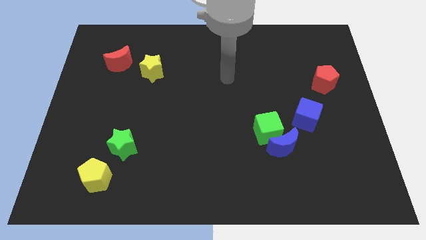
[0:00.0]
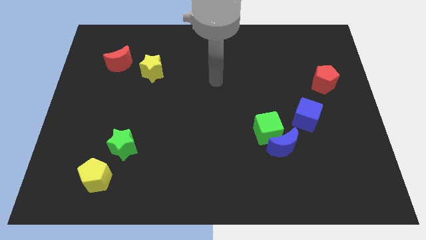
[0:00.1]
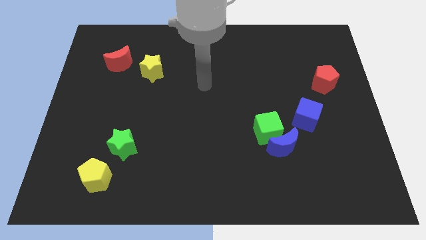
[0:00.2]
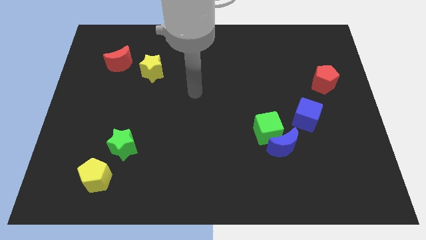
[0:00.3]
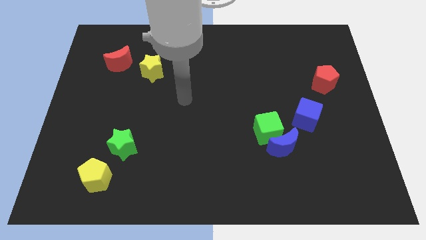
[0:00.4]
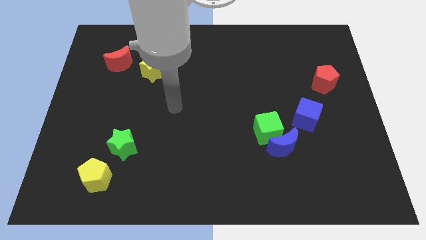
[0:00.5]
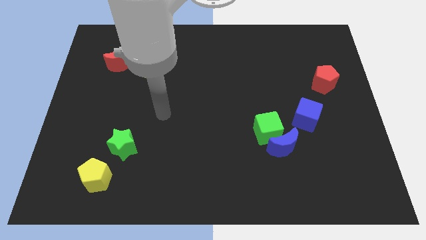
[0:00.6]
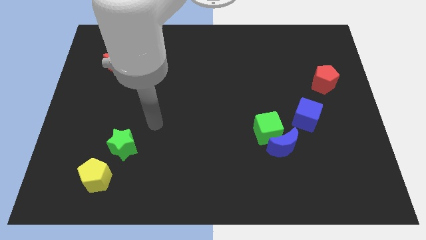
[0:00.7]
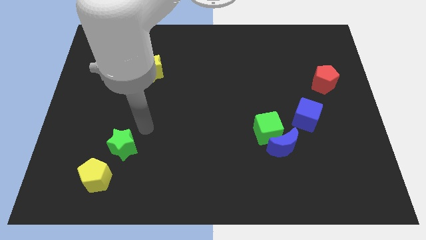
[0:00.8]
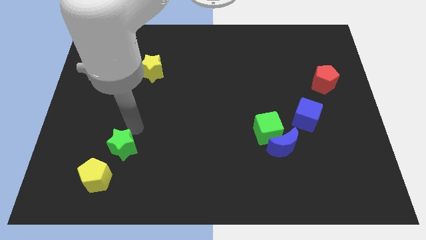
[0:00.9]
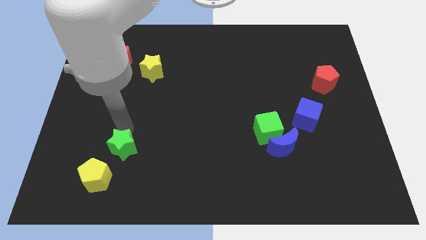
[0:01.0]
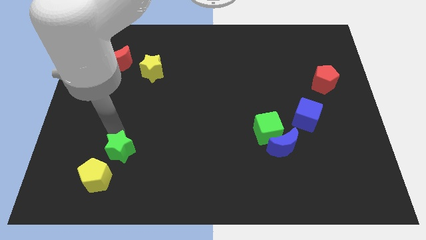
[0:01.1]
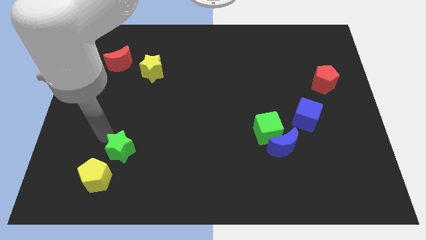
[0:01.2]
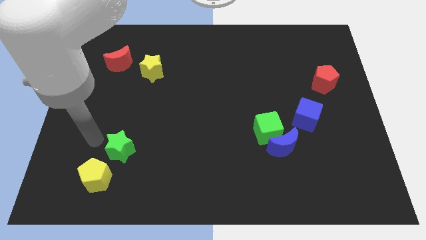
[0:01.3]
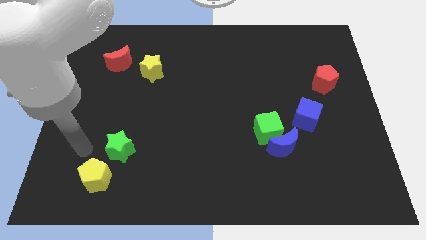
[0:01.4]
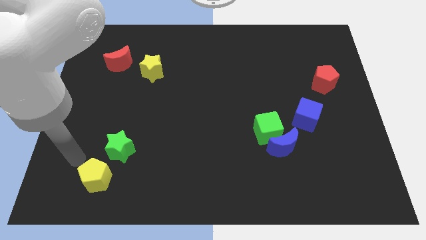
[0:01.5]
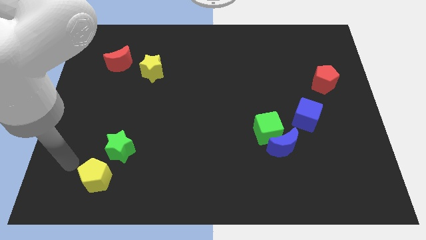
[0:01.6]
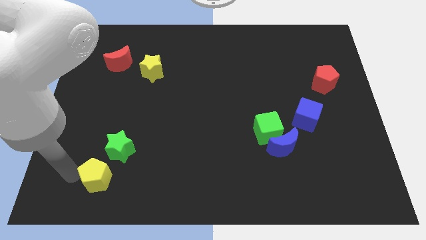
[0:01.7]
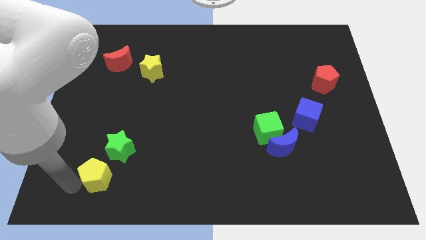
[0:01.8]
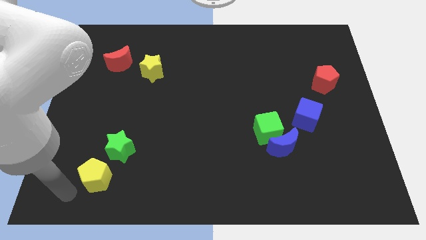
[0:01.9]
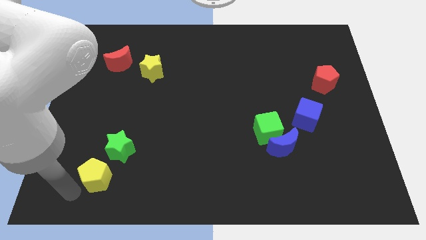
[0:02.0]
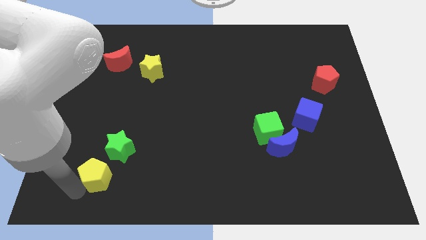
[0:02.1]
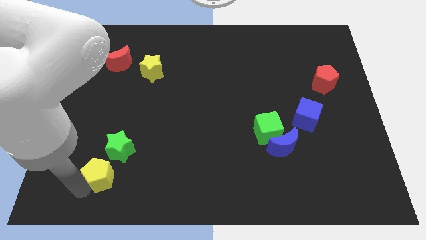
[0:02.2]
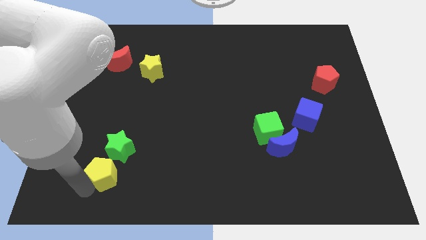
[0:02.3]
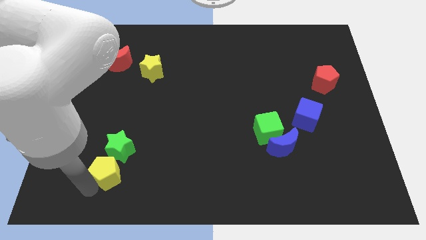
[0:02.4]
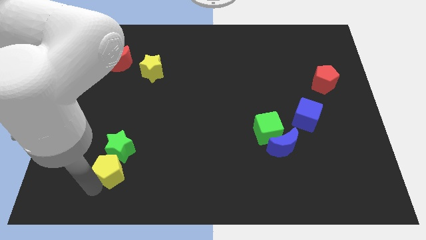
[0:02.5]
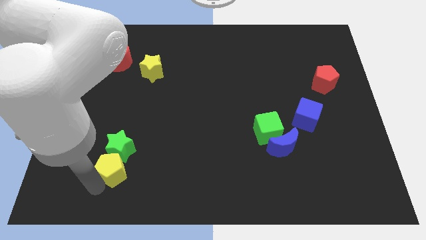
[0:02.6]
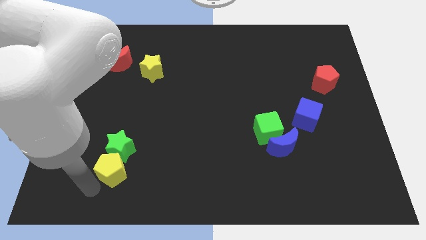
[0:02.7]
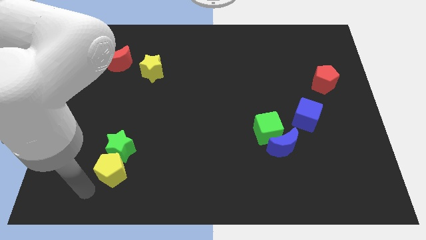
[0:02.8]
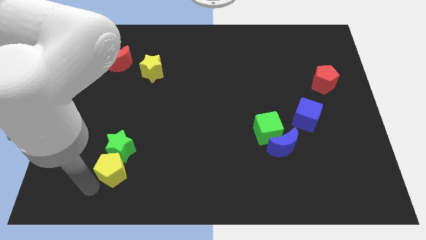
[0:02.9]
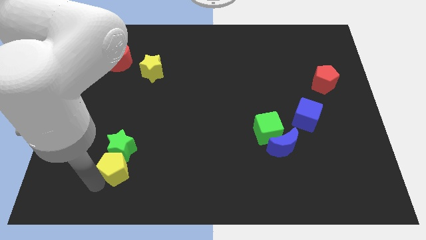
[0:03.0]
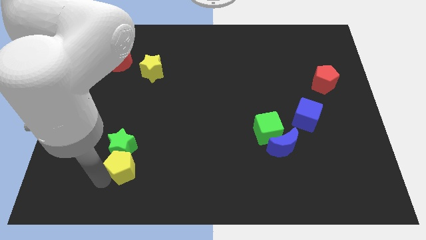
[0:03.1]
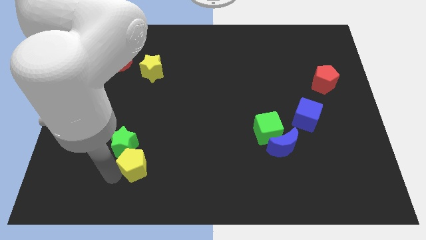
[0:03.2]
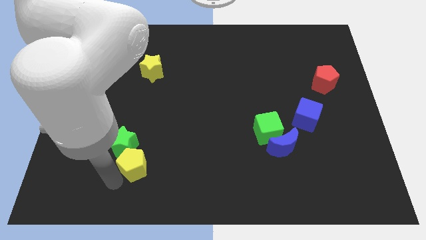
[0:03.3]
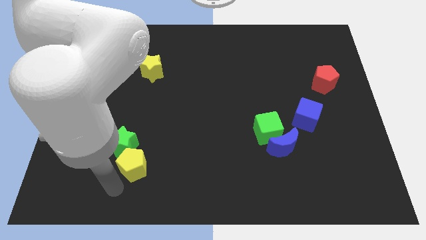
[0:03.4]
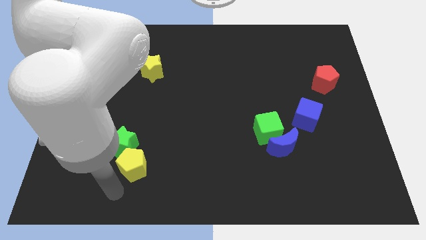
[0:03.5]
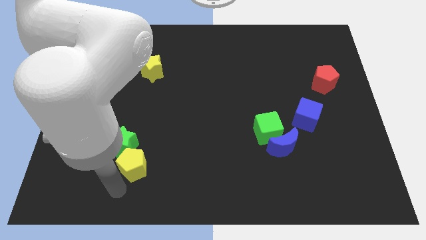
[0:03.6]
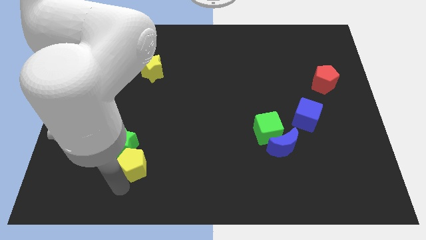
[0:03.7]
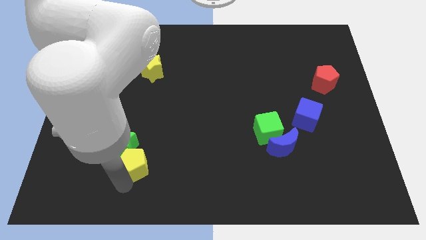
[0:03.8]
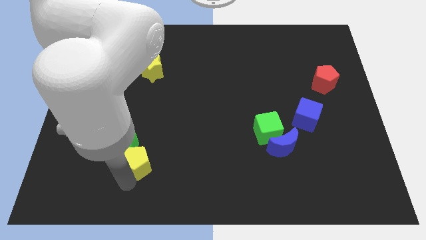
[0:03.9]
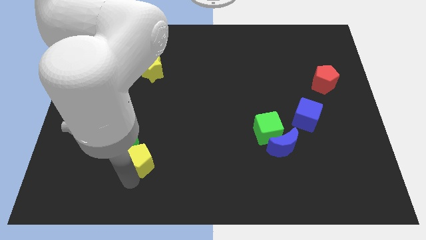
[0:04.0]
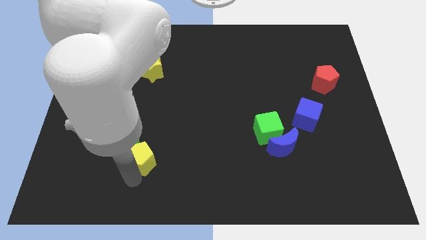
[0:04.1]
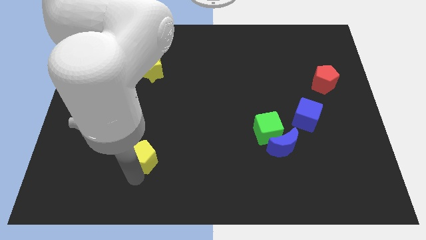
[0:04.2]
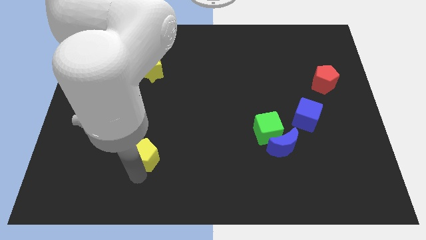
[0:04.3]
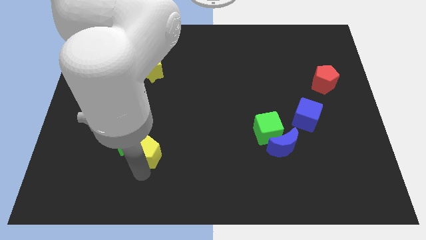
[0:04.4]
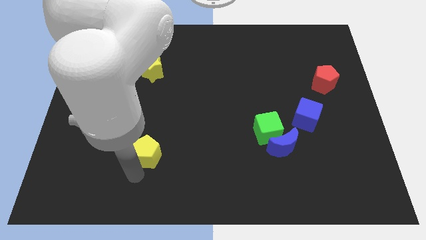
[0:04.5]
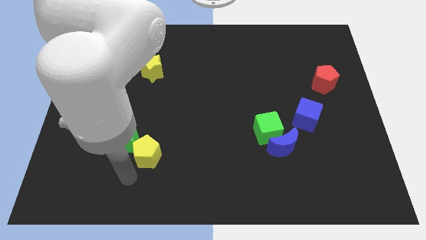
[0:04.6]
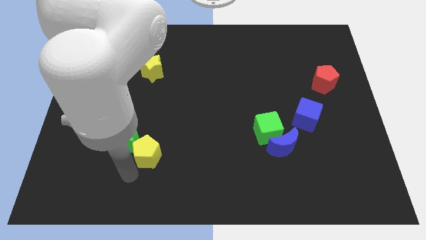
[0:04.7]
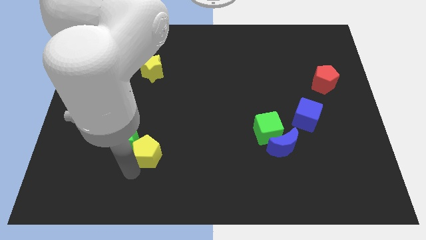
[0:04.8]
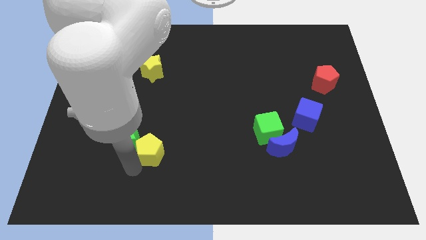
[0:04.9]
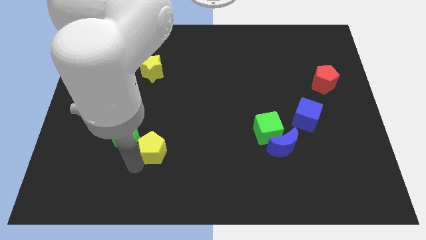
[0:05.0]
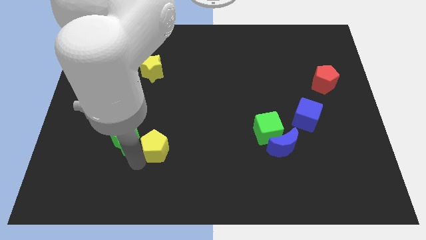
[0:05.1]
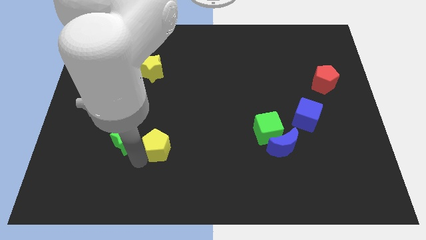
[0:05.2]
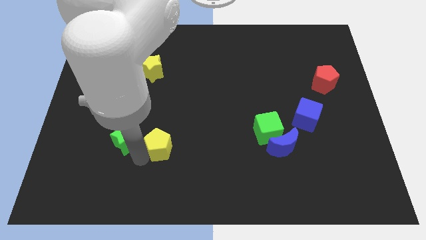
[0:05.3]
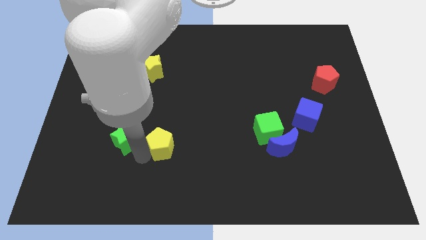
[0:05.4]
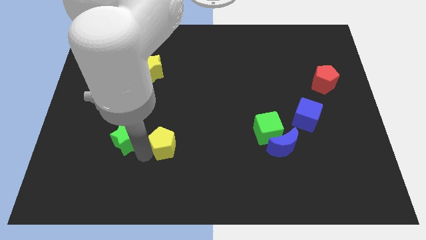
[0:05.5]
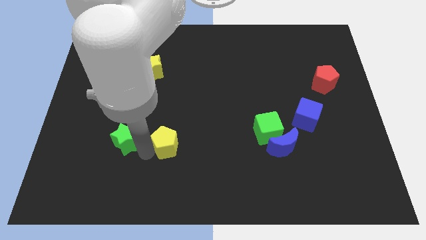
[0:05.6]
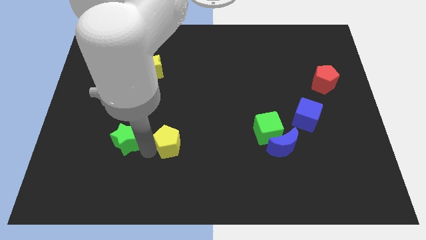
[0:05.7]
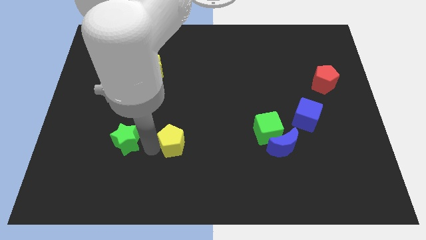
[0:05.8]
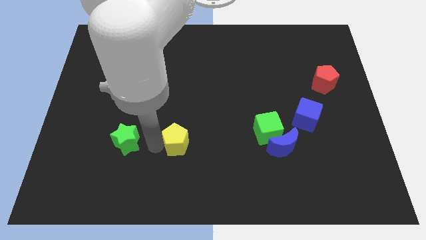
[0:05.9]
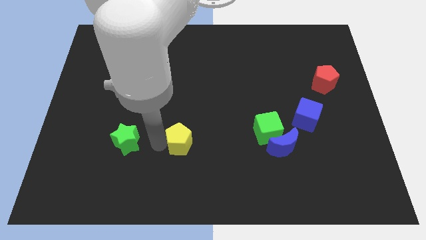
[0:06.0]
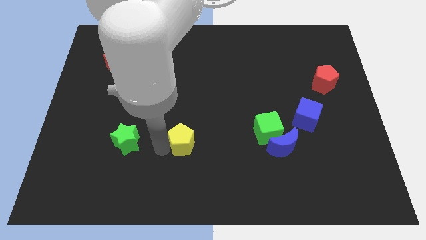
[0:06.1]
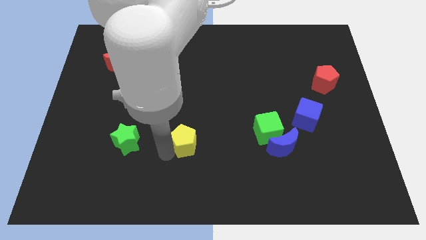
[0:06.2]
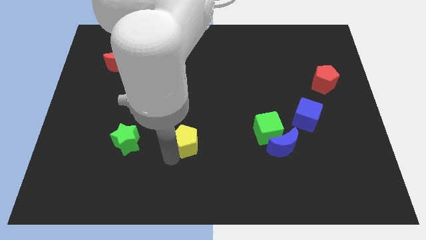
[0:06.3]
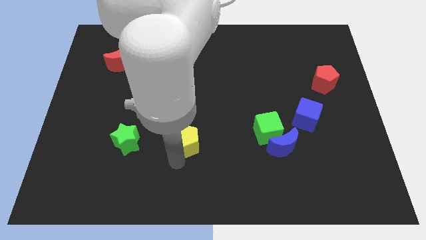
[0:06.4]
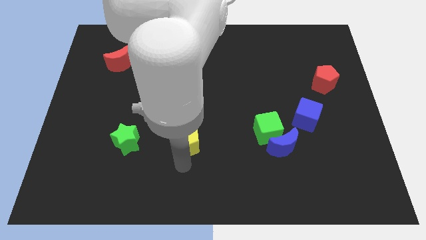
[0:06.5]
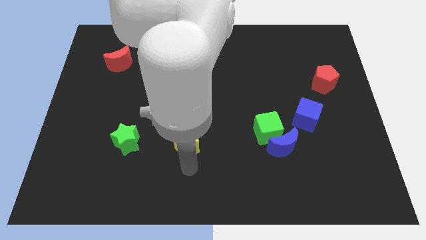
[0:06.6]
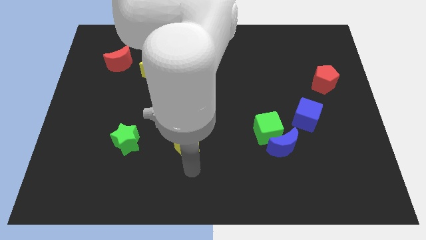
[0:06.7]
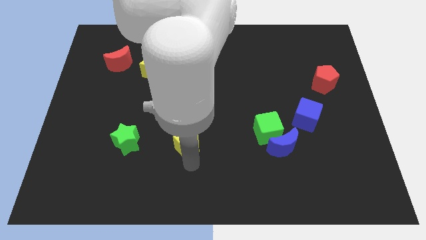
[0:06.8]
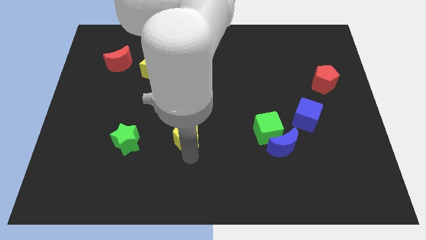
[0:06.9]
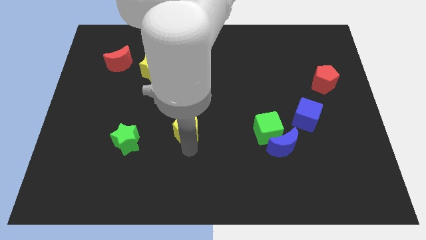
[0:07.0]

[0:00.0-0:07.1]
push the yellow pentagon up and right diagonally

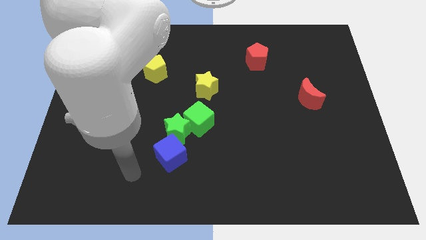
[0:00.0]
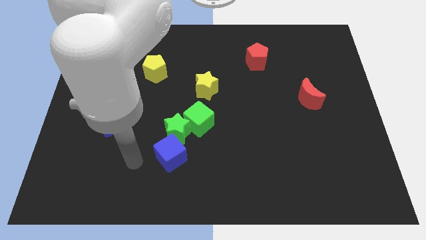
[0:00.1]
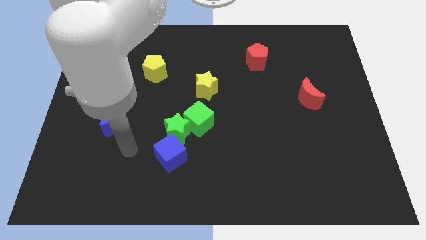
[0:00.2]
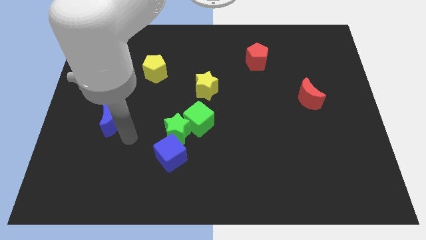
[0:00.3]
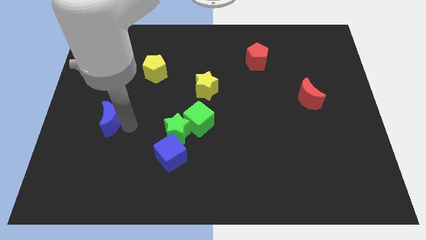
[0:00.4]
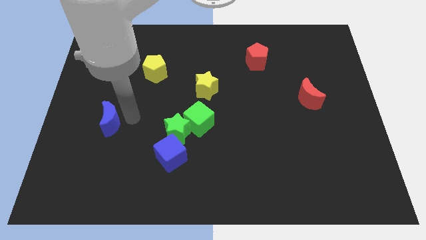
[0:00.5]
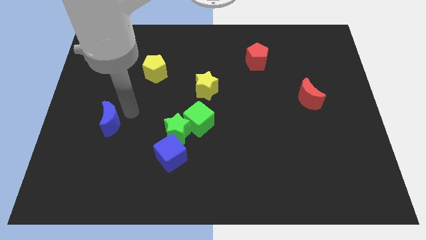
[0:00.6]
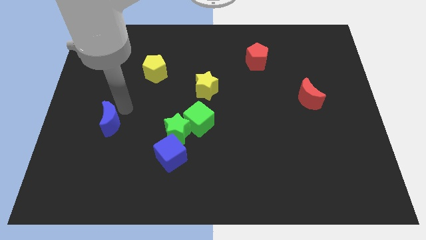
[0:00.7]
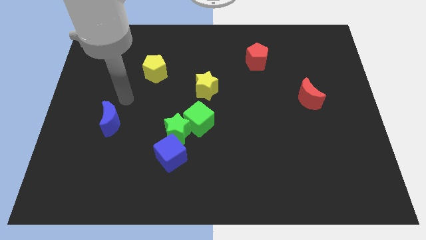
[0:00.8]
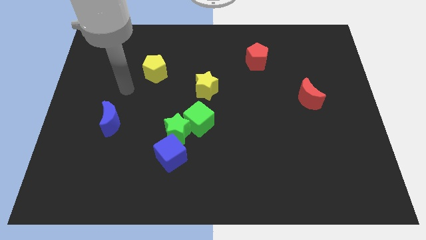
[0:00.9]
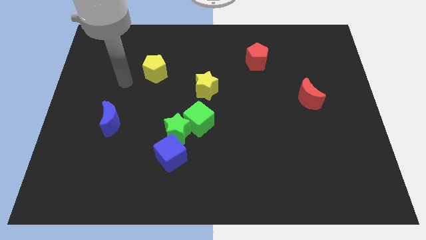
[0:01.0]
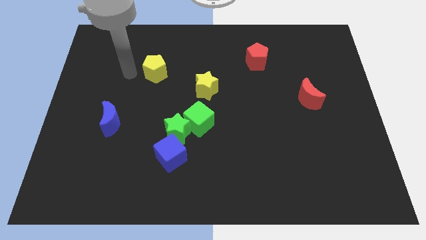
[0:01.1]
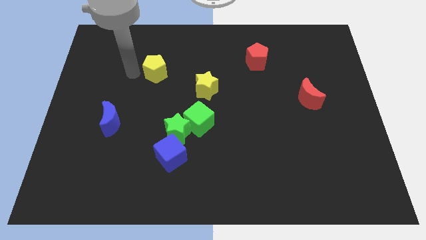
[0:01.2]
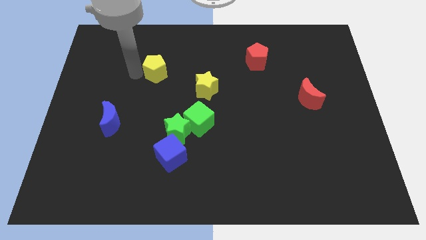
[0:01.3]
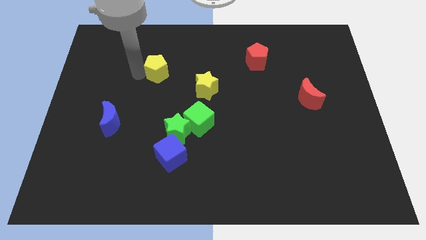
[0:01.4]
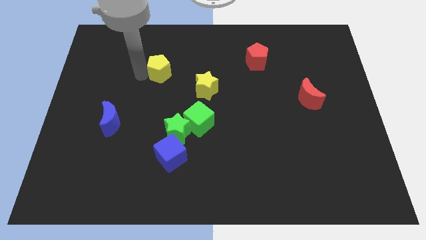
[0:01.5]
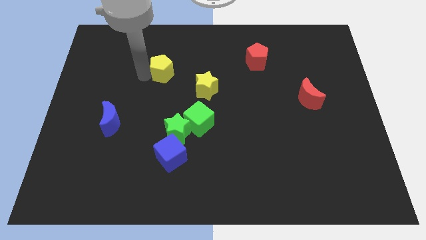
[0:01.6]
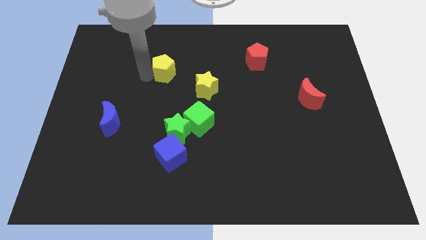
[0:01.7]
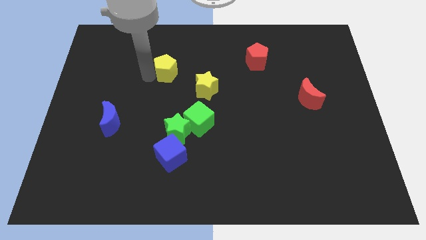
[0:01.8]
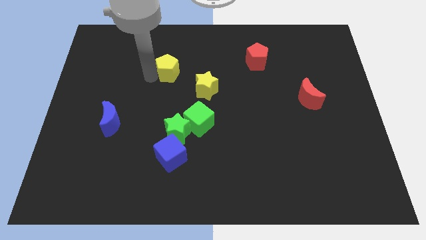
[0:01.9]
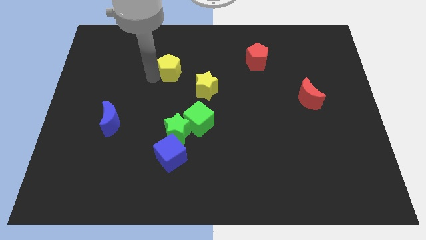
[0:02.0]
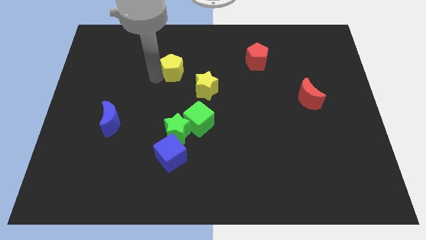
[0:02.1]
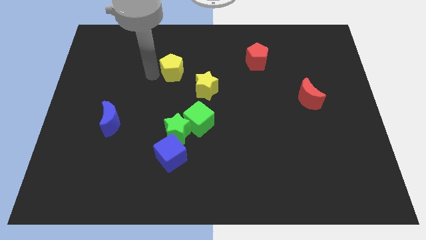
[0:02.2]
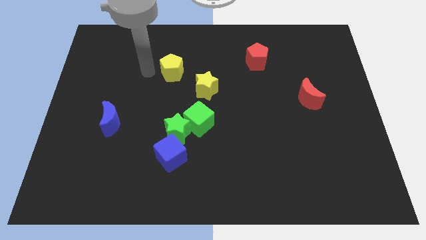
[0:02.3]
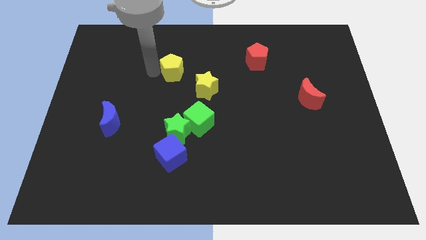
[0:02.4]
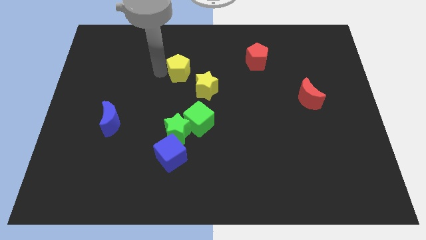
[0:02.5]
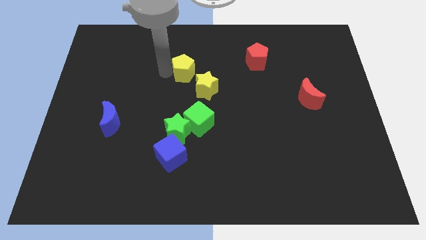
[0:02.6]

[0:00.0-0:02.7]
slightly move the yellow pentagon right
